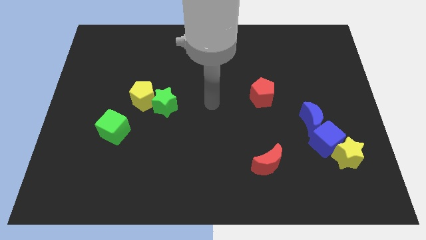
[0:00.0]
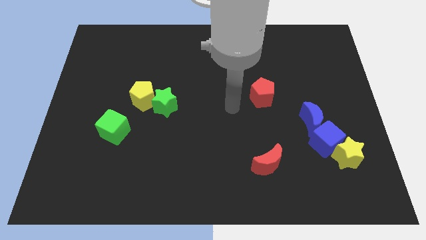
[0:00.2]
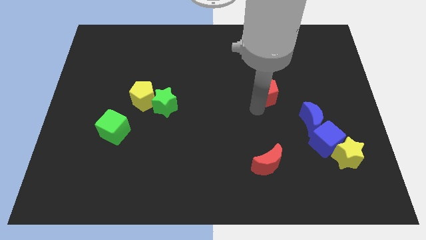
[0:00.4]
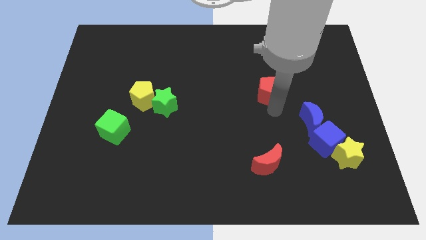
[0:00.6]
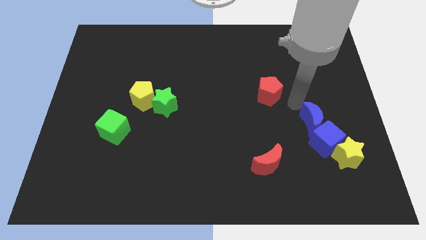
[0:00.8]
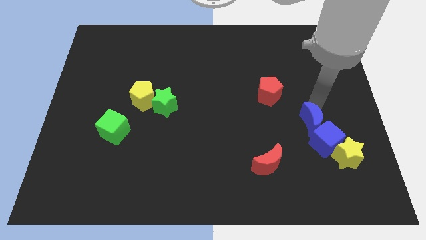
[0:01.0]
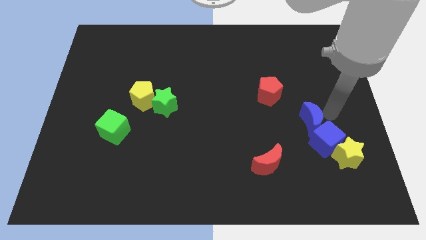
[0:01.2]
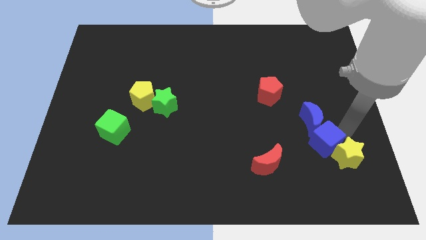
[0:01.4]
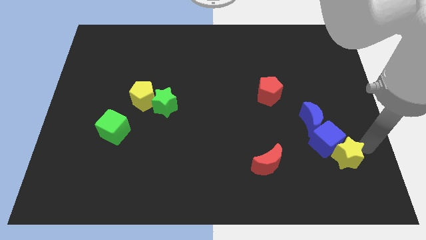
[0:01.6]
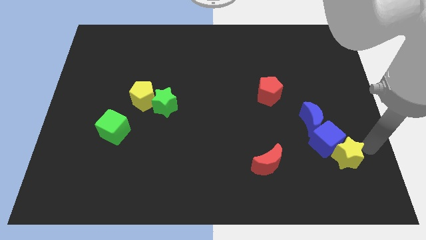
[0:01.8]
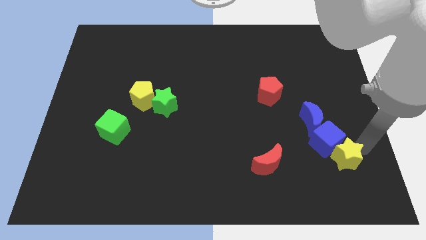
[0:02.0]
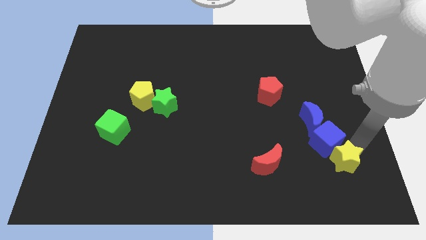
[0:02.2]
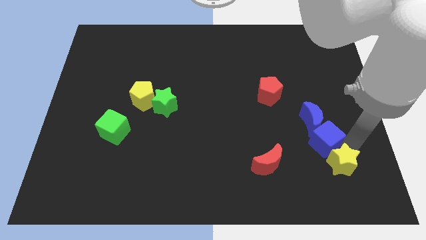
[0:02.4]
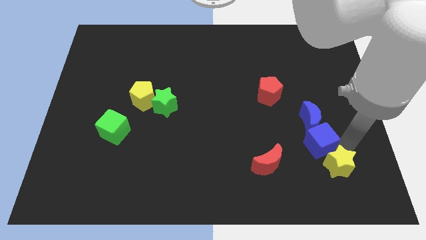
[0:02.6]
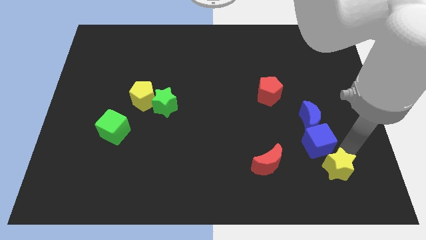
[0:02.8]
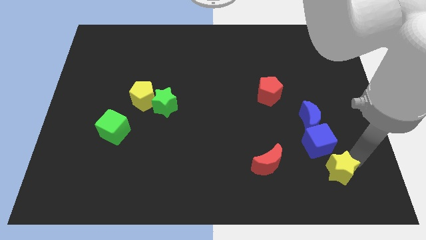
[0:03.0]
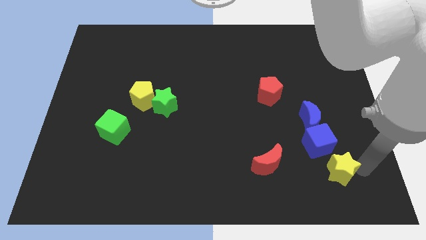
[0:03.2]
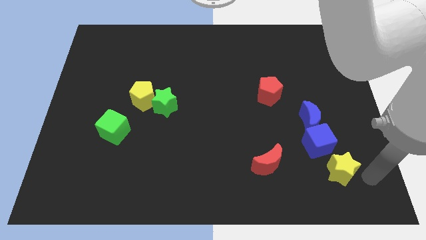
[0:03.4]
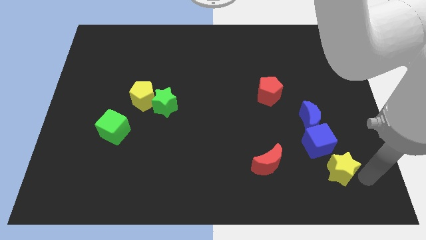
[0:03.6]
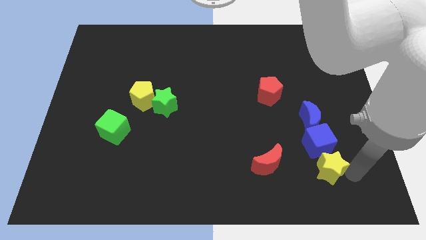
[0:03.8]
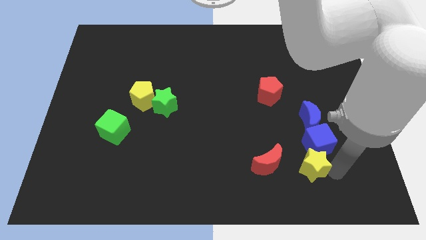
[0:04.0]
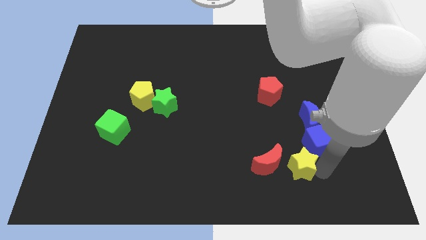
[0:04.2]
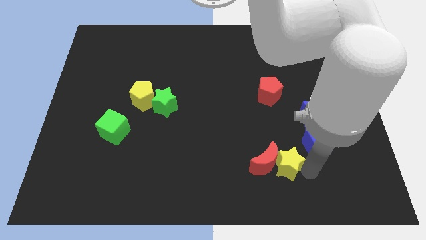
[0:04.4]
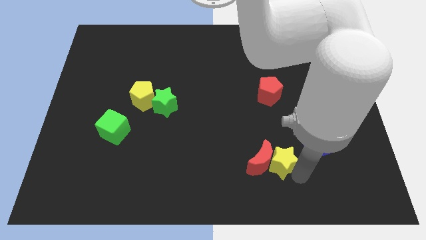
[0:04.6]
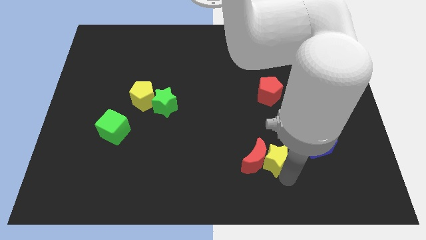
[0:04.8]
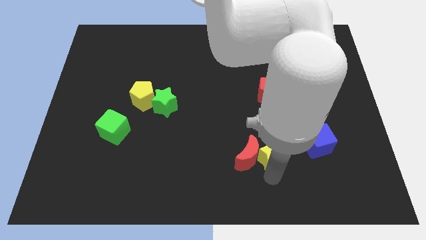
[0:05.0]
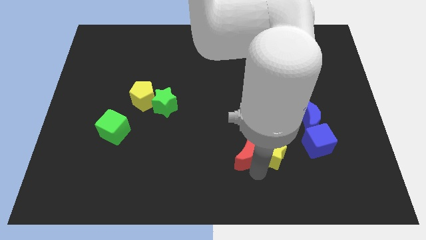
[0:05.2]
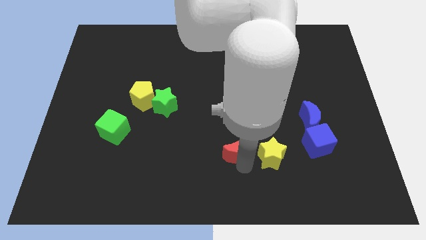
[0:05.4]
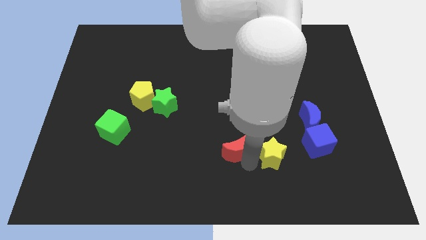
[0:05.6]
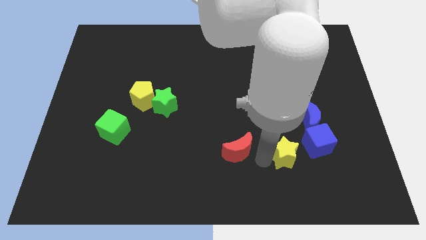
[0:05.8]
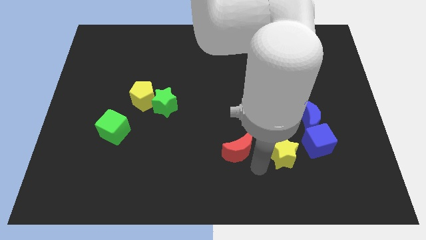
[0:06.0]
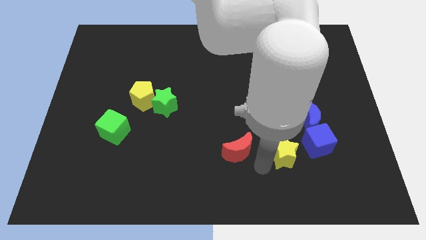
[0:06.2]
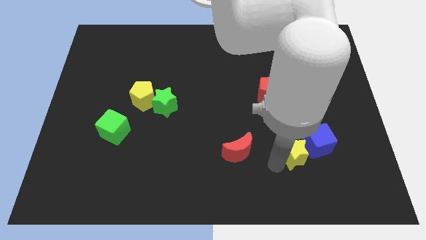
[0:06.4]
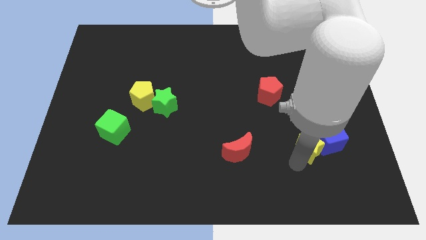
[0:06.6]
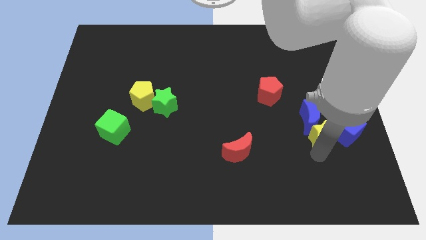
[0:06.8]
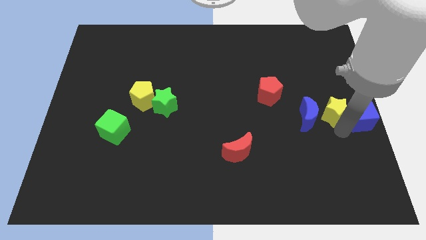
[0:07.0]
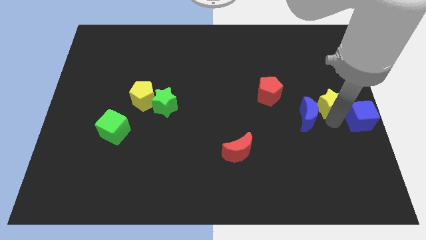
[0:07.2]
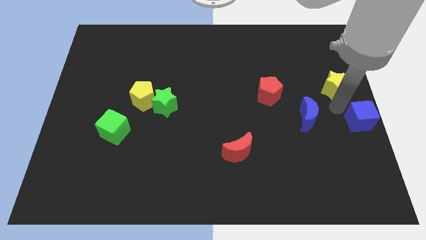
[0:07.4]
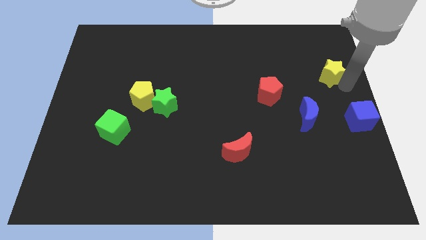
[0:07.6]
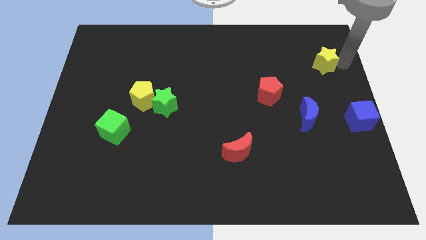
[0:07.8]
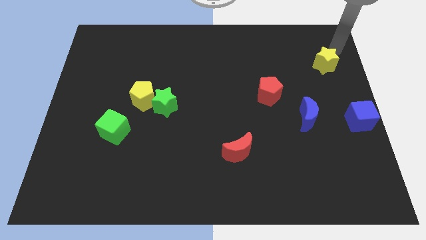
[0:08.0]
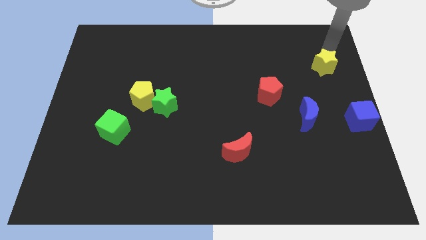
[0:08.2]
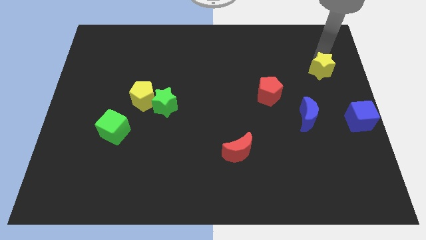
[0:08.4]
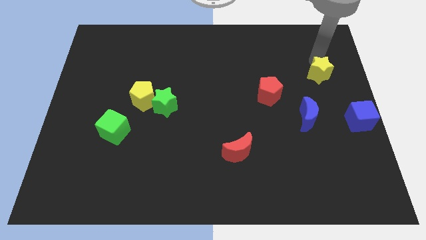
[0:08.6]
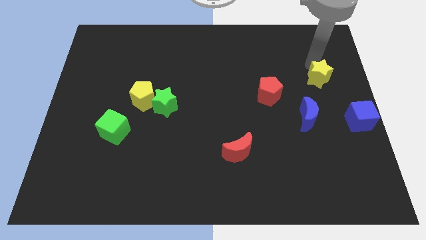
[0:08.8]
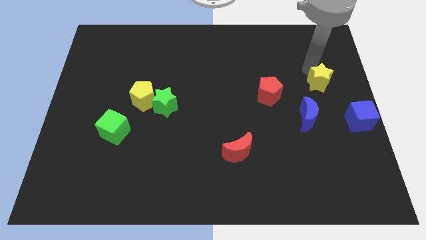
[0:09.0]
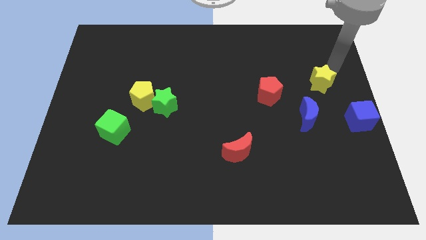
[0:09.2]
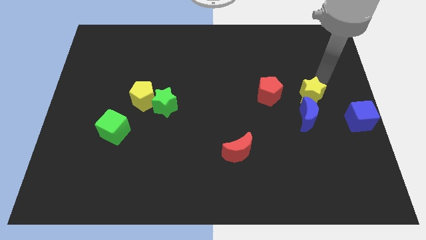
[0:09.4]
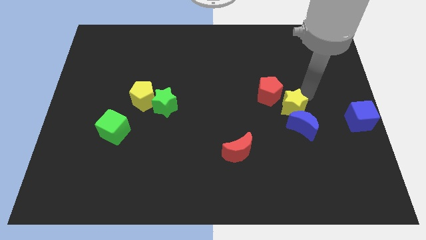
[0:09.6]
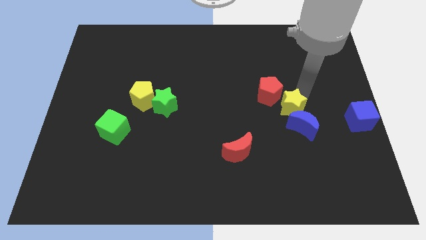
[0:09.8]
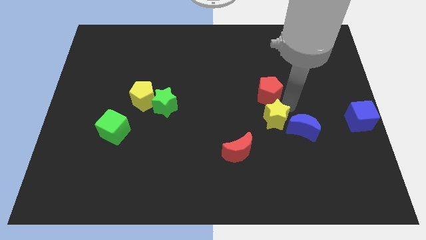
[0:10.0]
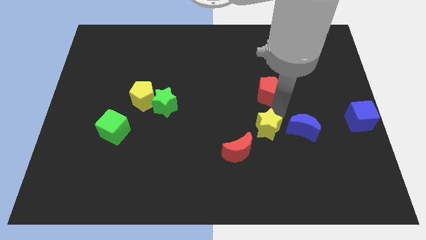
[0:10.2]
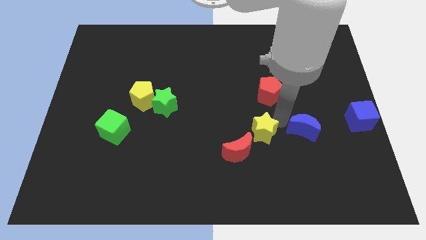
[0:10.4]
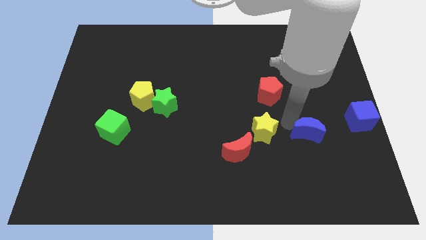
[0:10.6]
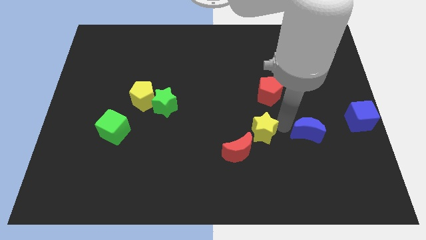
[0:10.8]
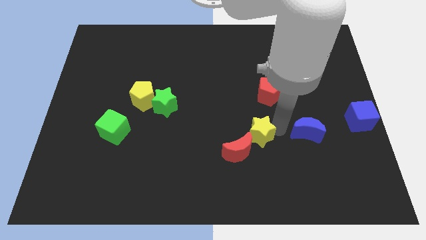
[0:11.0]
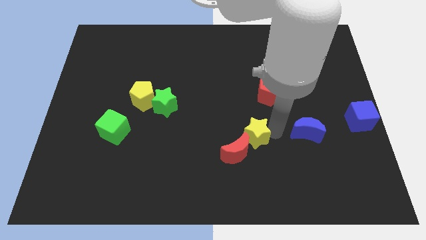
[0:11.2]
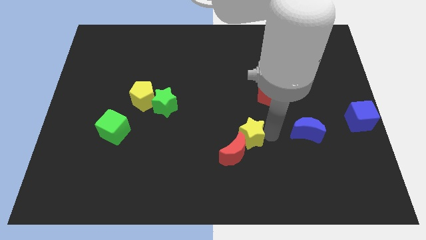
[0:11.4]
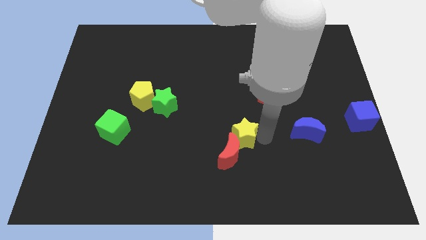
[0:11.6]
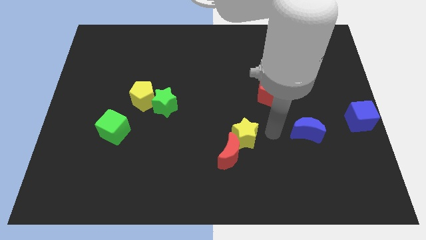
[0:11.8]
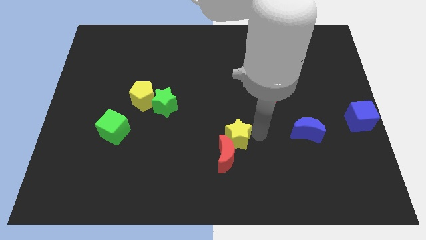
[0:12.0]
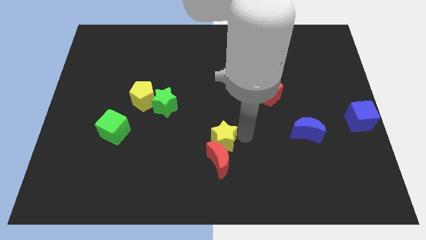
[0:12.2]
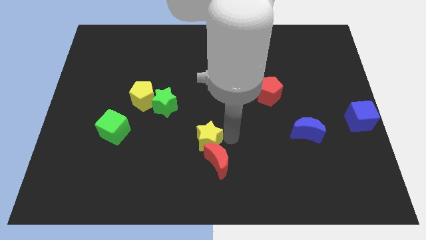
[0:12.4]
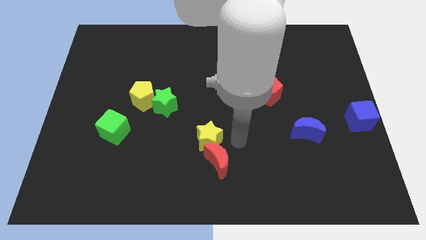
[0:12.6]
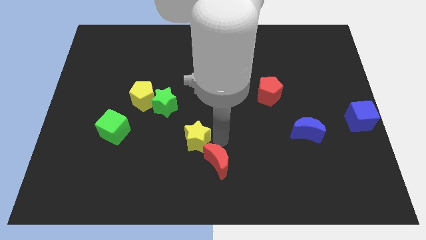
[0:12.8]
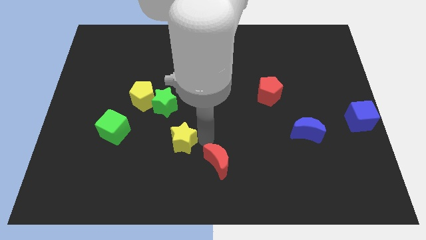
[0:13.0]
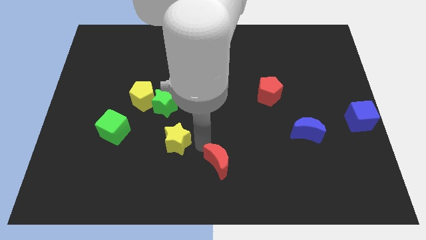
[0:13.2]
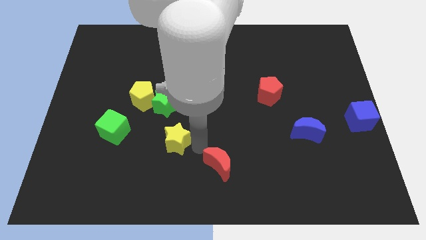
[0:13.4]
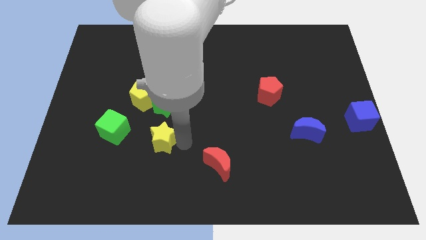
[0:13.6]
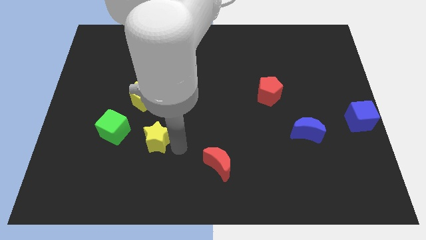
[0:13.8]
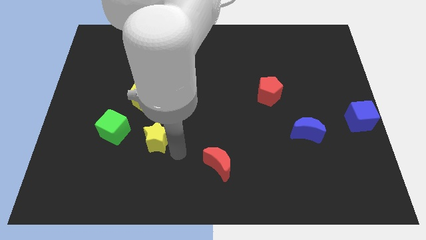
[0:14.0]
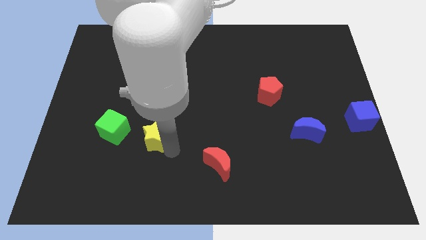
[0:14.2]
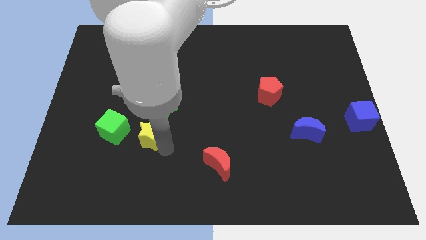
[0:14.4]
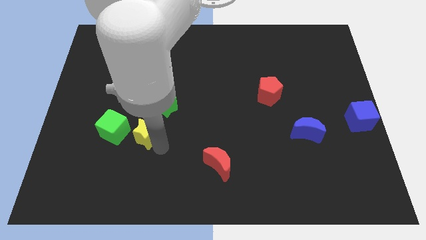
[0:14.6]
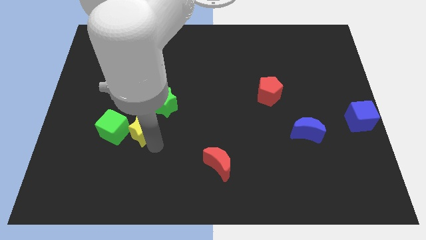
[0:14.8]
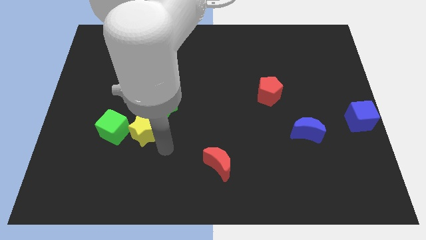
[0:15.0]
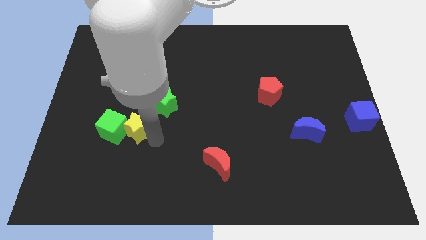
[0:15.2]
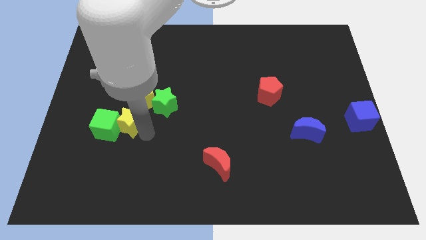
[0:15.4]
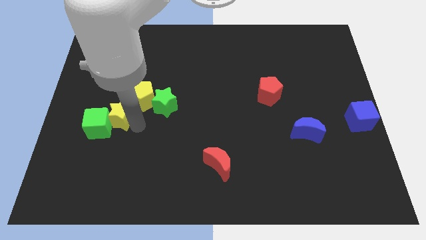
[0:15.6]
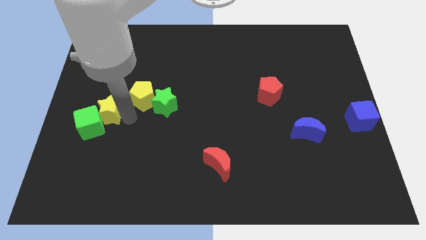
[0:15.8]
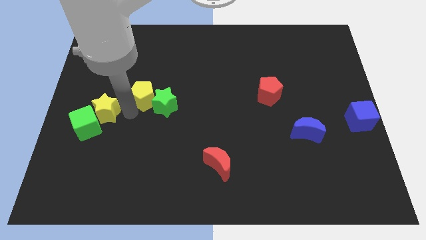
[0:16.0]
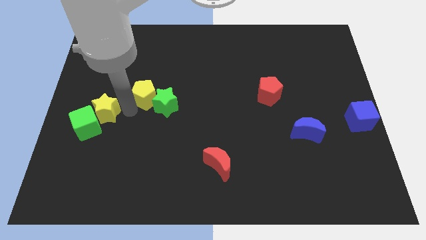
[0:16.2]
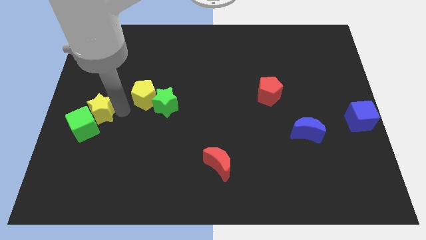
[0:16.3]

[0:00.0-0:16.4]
move the yellow star to the center left
